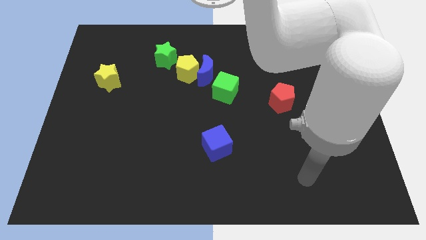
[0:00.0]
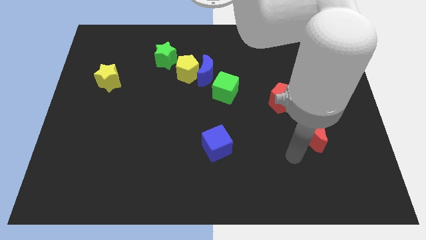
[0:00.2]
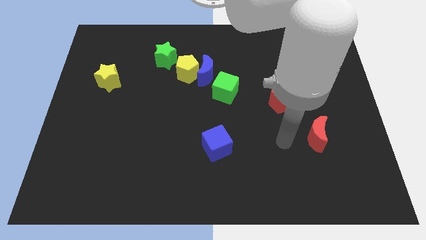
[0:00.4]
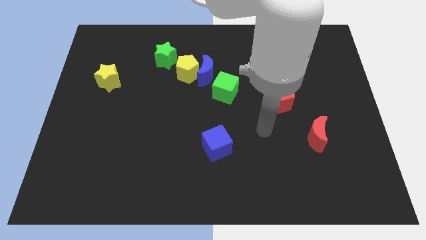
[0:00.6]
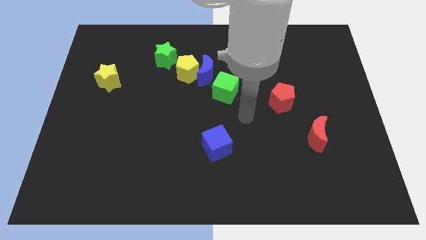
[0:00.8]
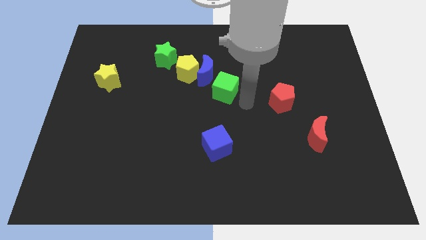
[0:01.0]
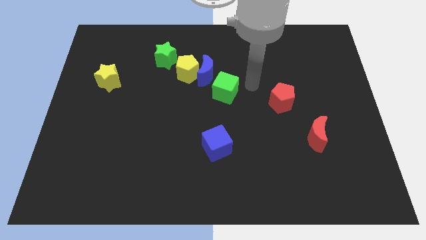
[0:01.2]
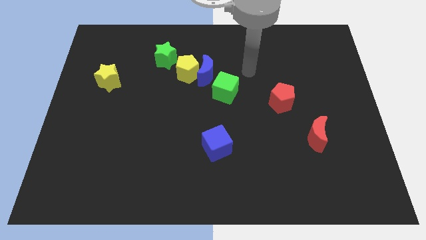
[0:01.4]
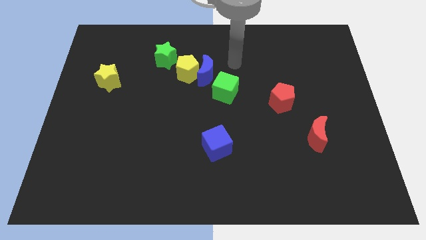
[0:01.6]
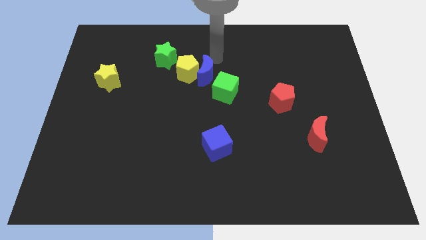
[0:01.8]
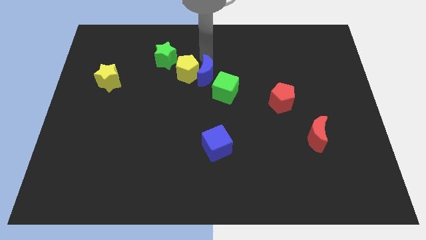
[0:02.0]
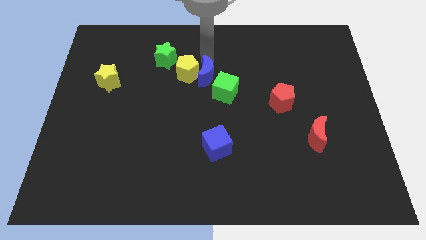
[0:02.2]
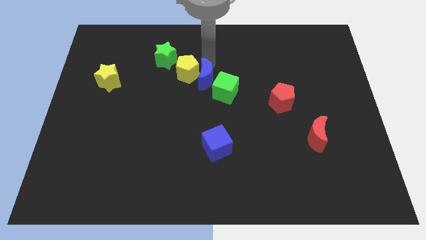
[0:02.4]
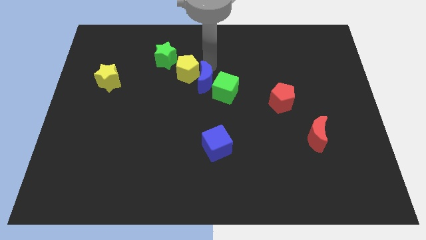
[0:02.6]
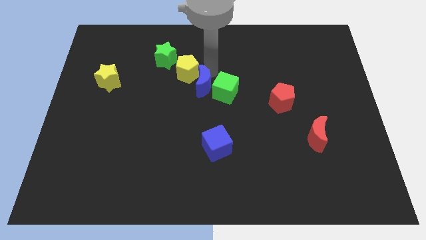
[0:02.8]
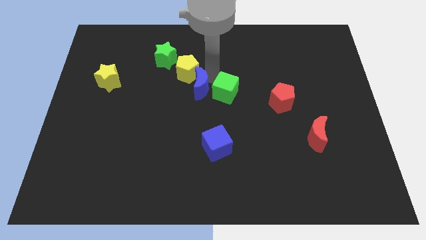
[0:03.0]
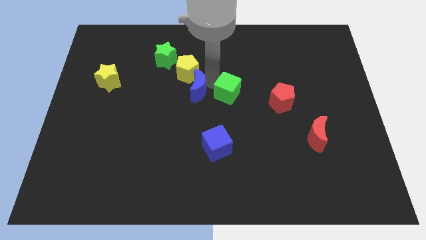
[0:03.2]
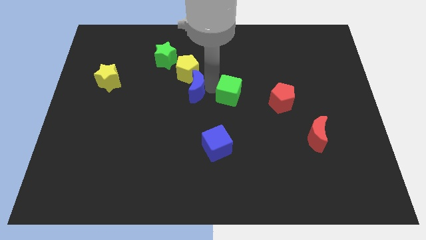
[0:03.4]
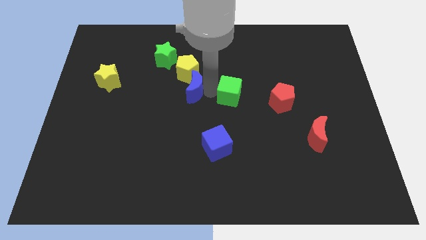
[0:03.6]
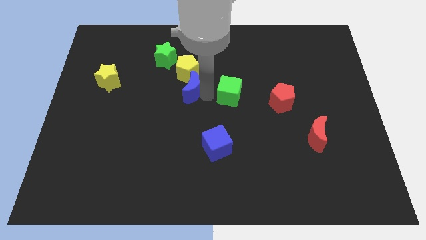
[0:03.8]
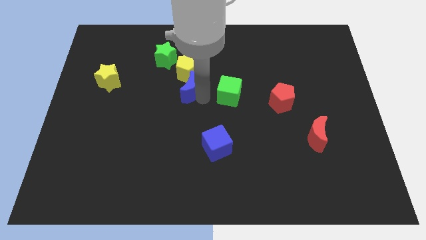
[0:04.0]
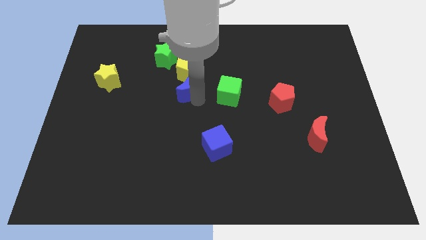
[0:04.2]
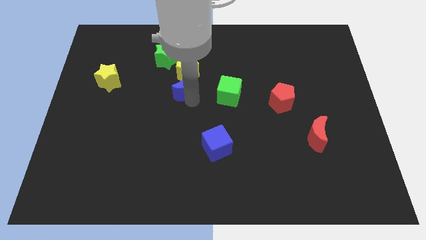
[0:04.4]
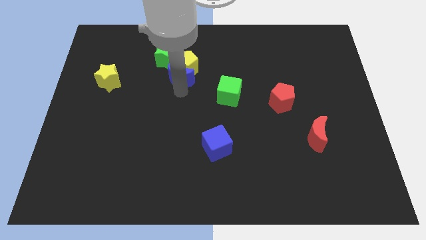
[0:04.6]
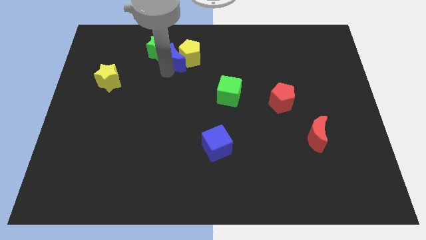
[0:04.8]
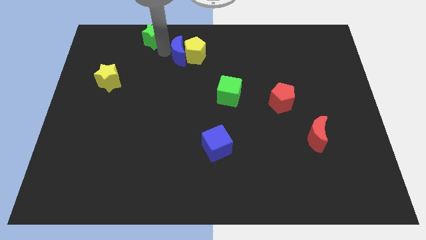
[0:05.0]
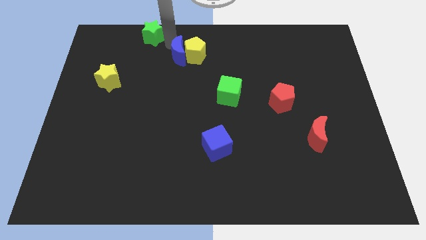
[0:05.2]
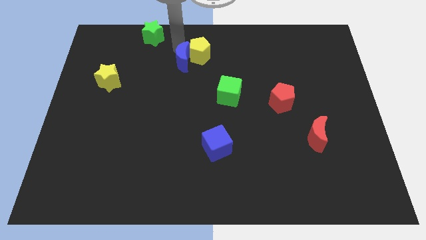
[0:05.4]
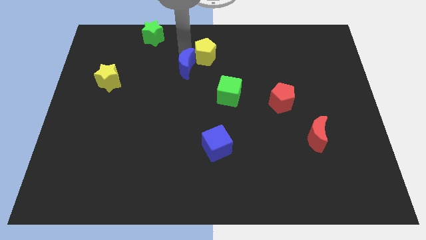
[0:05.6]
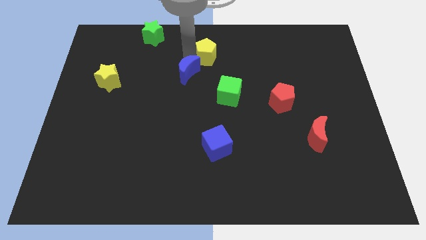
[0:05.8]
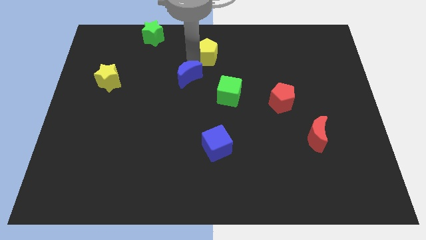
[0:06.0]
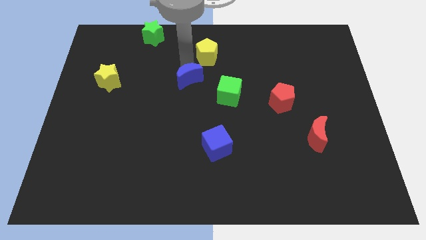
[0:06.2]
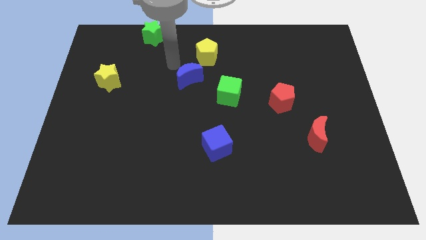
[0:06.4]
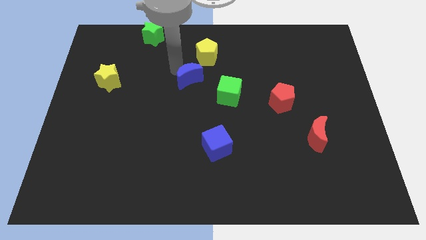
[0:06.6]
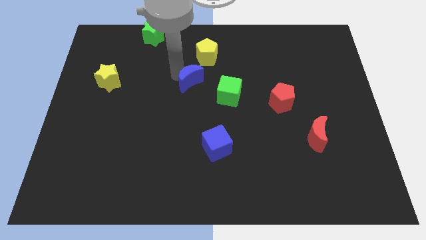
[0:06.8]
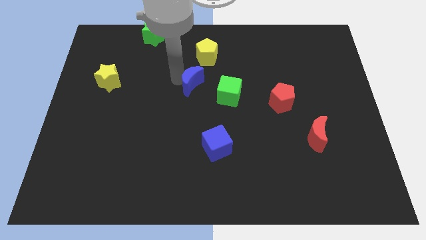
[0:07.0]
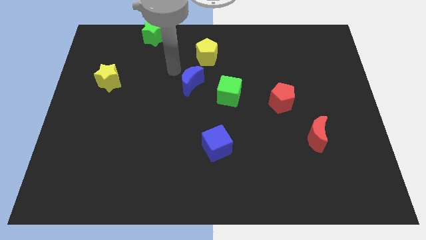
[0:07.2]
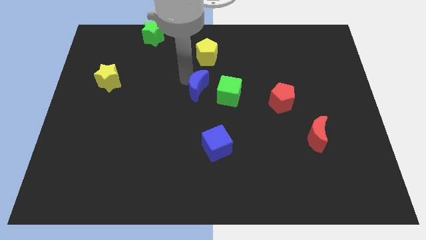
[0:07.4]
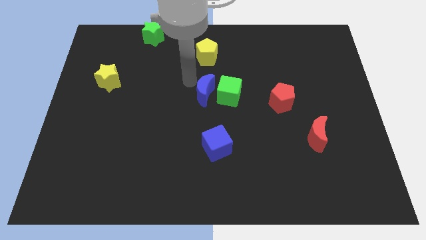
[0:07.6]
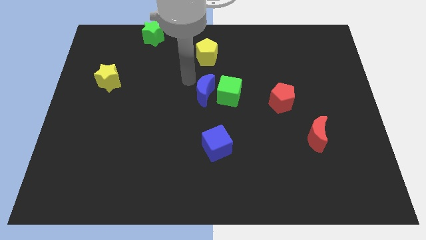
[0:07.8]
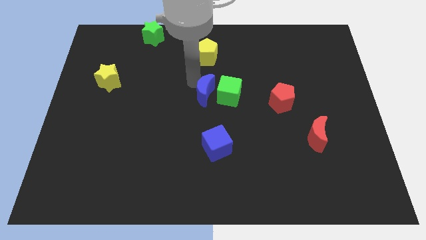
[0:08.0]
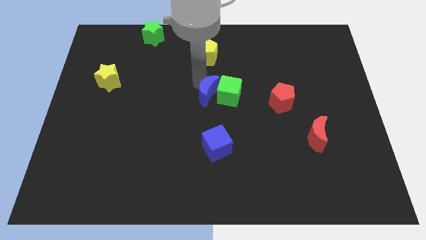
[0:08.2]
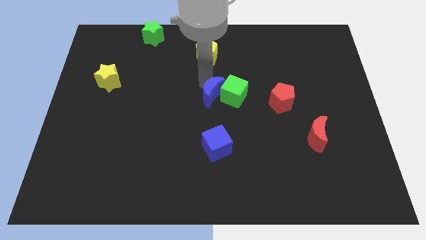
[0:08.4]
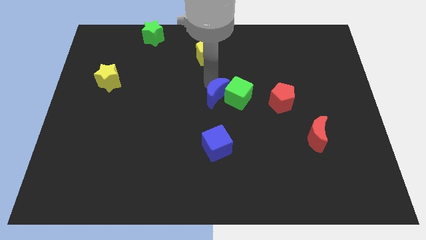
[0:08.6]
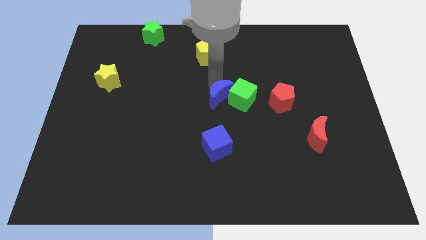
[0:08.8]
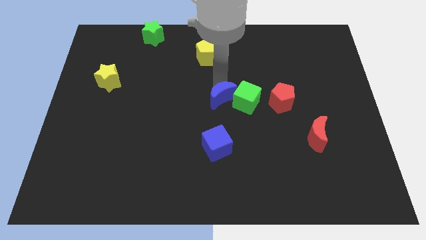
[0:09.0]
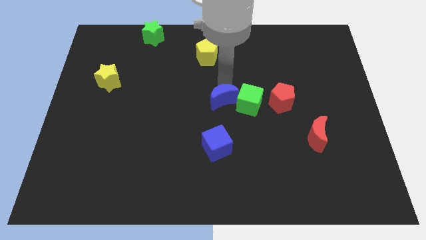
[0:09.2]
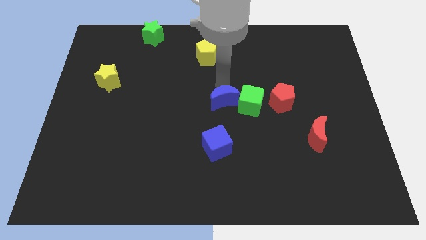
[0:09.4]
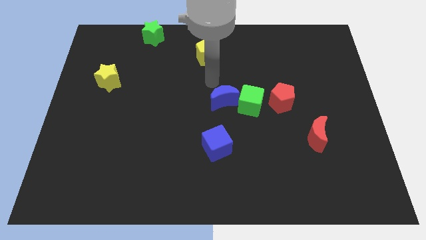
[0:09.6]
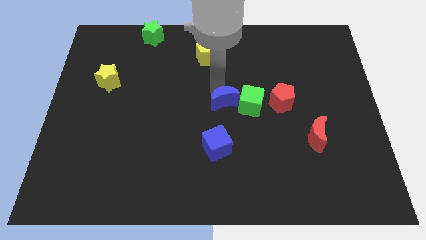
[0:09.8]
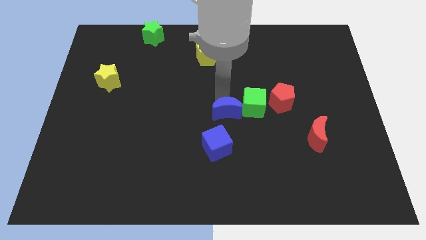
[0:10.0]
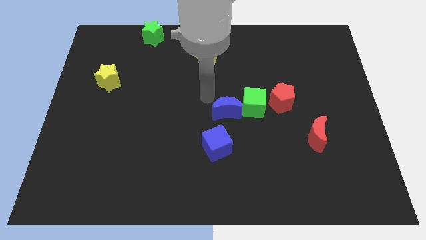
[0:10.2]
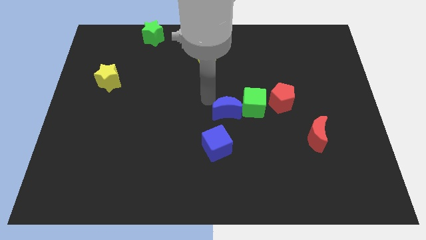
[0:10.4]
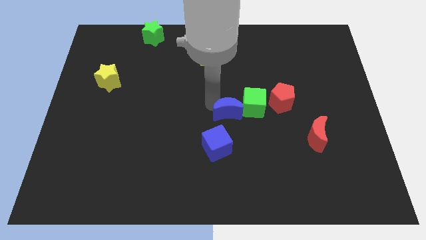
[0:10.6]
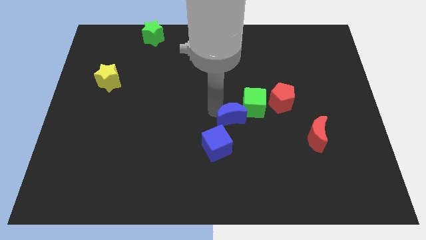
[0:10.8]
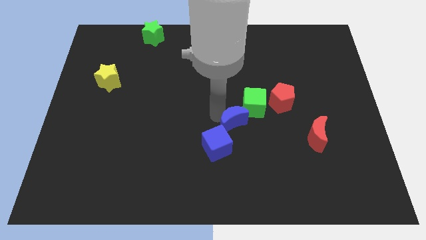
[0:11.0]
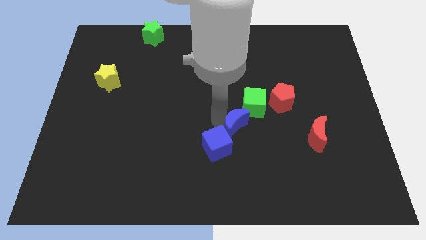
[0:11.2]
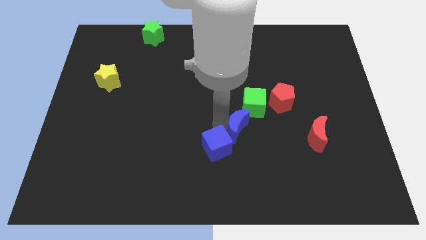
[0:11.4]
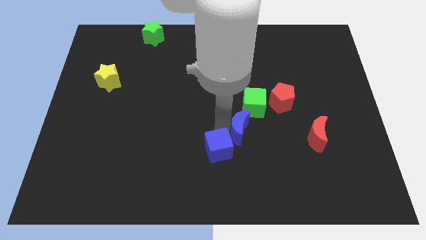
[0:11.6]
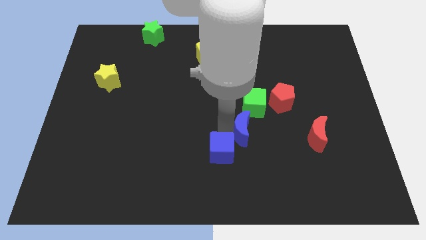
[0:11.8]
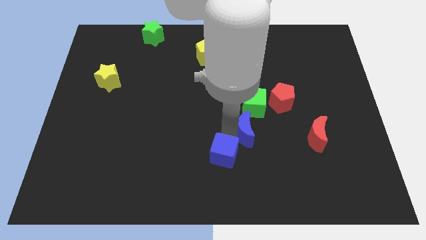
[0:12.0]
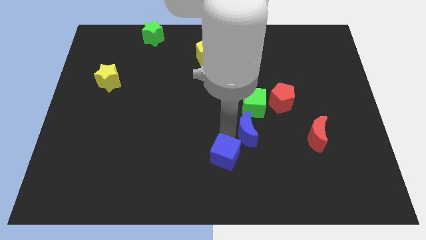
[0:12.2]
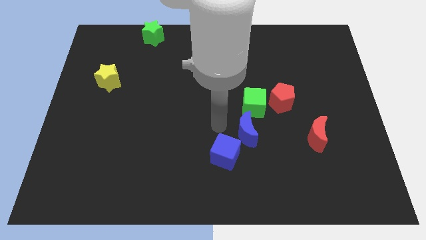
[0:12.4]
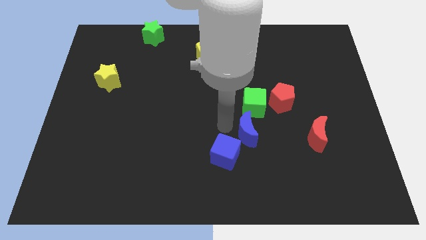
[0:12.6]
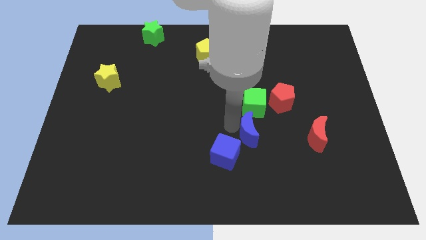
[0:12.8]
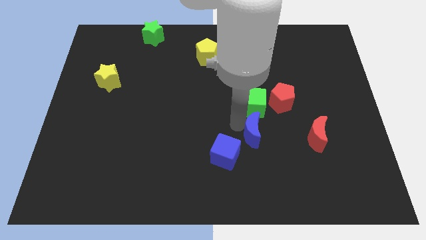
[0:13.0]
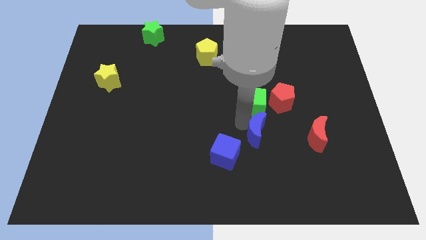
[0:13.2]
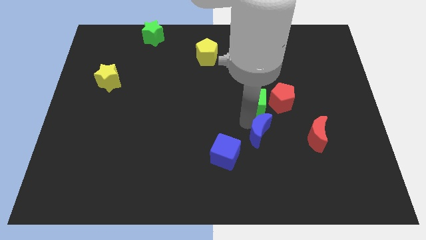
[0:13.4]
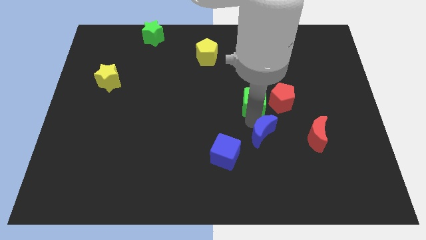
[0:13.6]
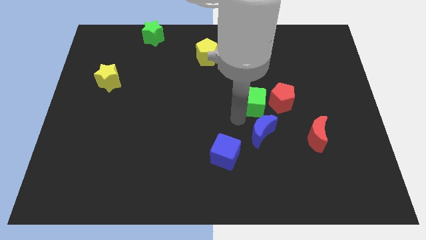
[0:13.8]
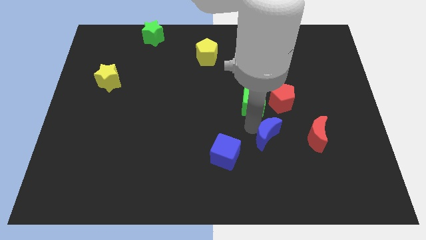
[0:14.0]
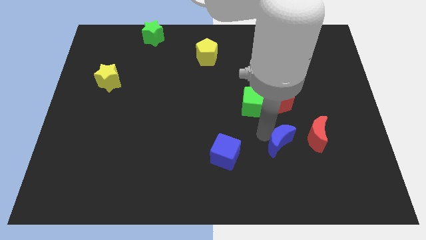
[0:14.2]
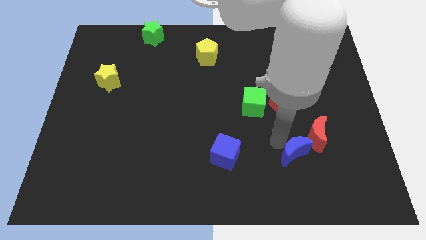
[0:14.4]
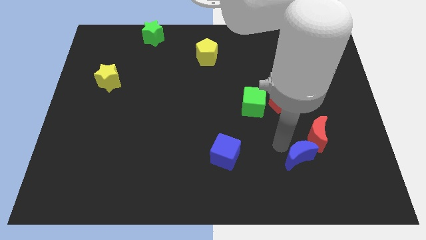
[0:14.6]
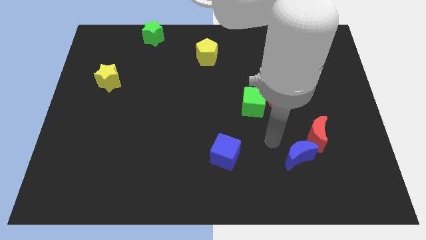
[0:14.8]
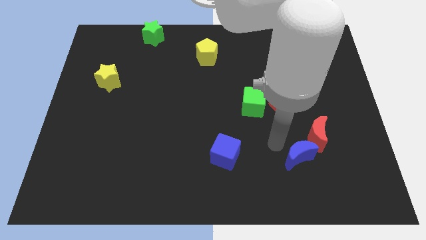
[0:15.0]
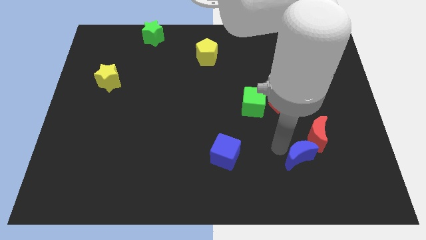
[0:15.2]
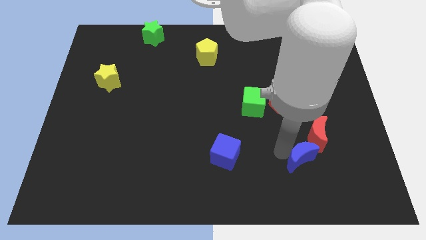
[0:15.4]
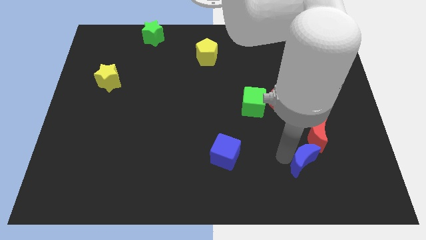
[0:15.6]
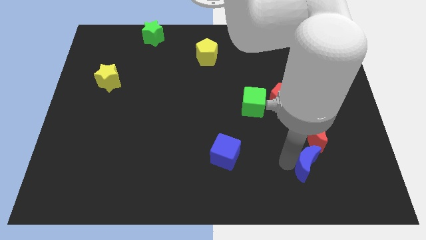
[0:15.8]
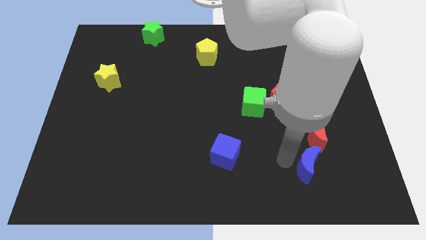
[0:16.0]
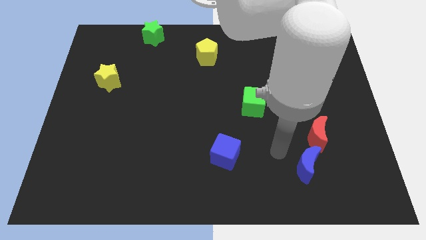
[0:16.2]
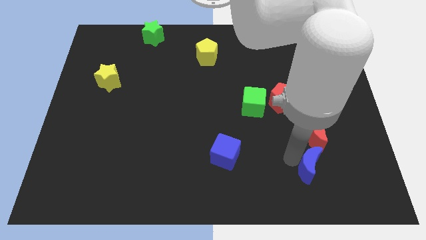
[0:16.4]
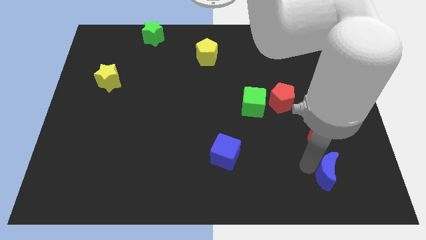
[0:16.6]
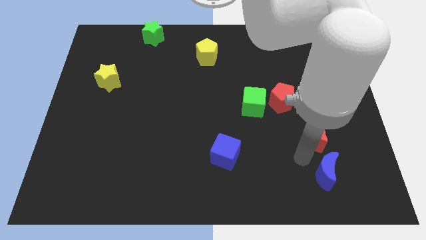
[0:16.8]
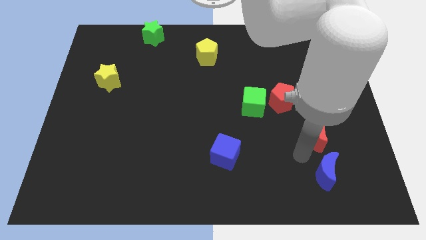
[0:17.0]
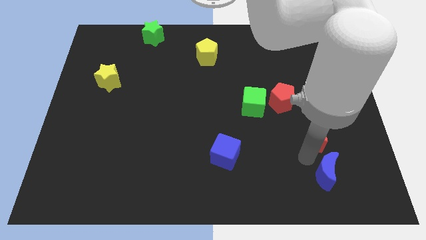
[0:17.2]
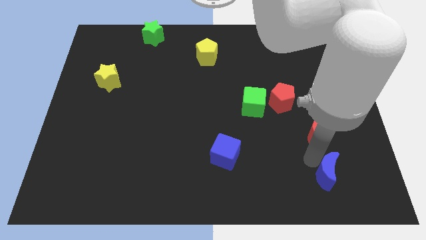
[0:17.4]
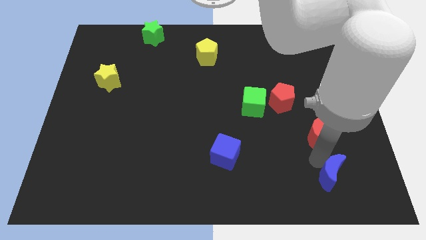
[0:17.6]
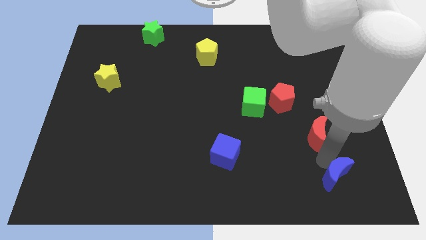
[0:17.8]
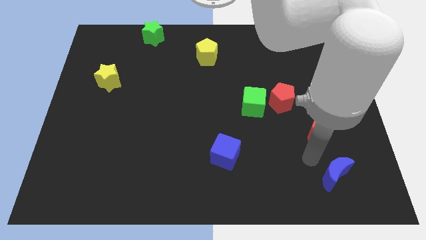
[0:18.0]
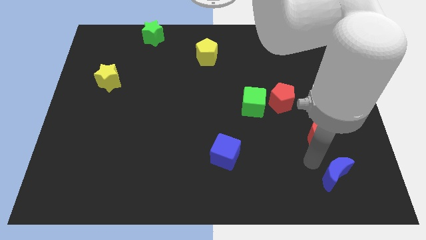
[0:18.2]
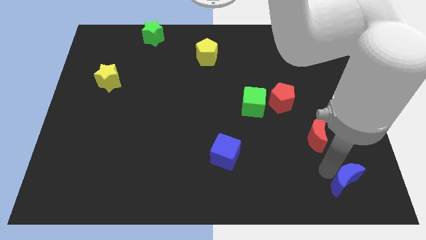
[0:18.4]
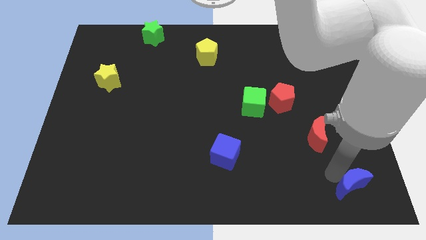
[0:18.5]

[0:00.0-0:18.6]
push the blue moon to the lower right corner
